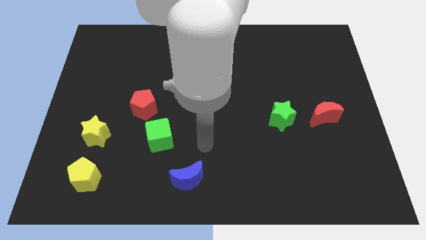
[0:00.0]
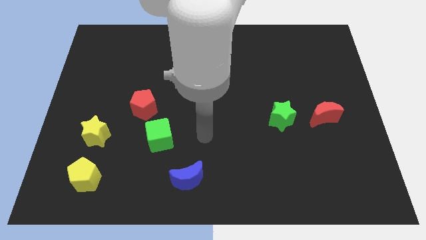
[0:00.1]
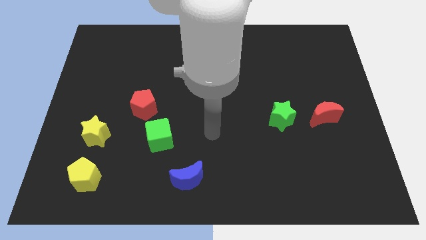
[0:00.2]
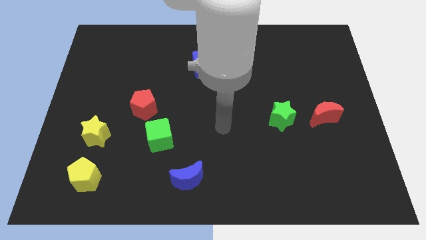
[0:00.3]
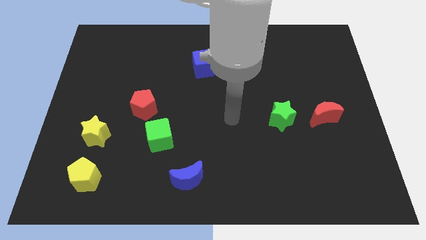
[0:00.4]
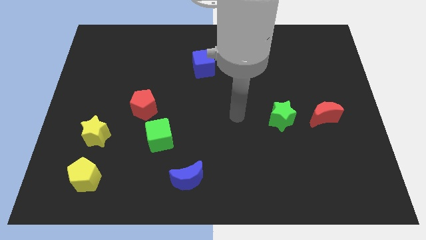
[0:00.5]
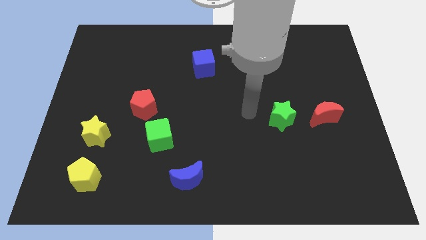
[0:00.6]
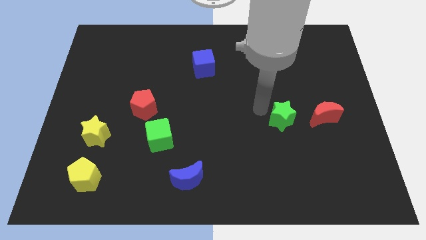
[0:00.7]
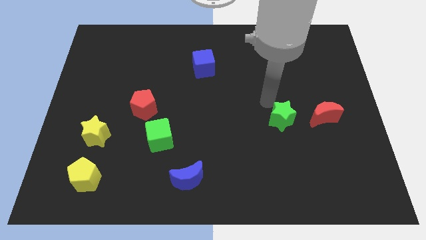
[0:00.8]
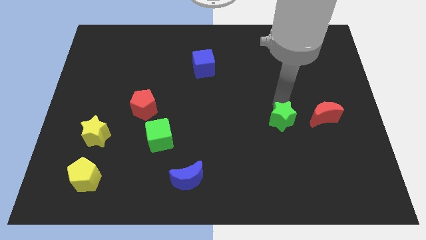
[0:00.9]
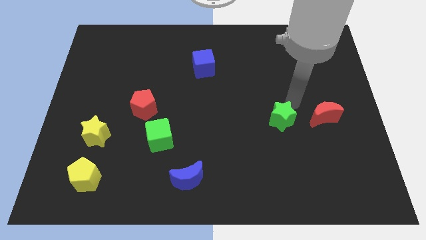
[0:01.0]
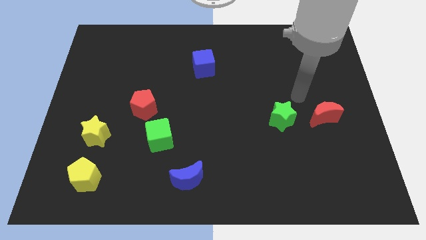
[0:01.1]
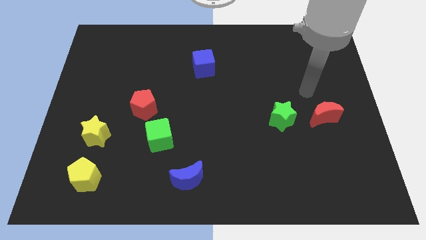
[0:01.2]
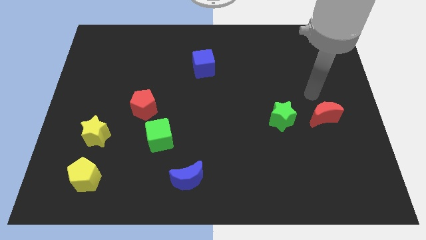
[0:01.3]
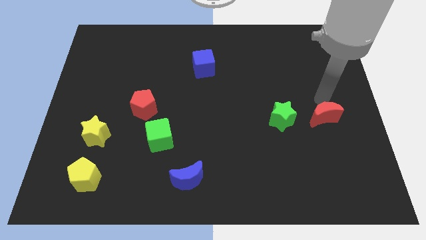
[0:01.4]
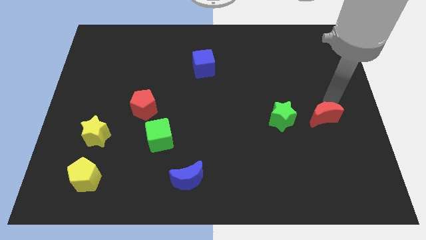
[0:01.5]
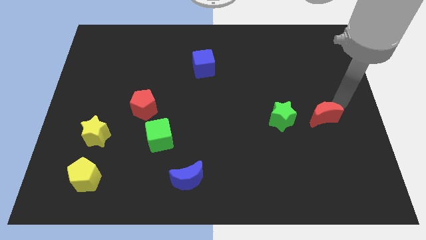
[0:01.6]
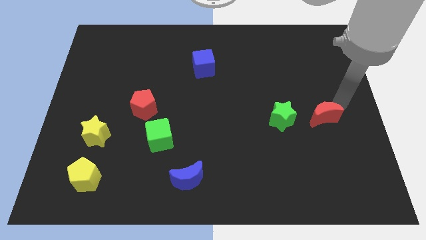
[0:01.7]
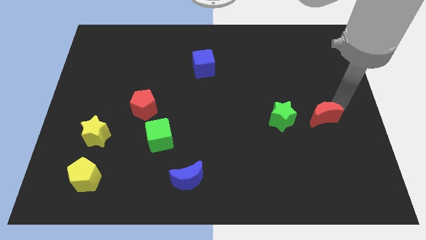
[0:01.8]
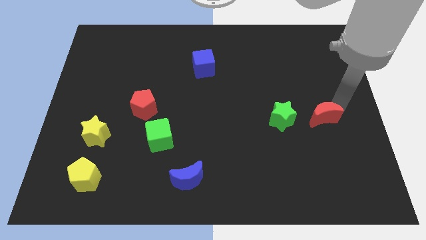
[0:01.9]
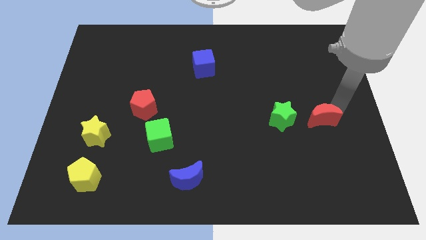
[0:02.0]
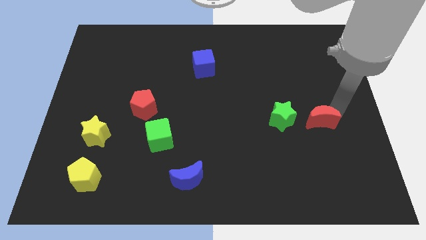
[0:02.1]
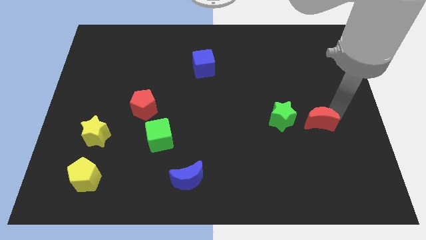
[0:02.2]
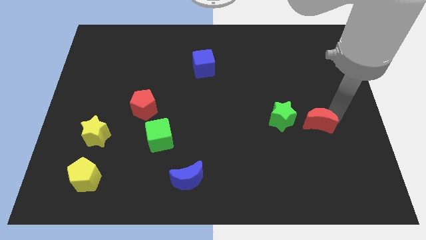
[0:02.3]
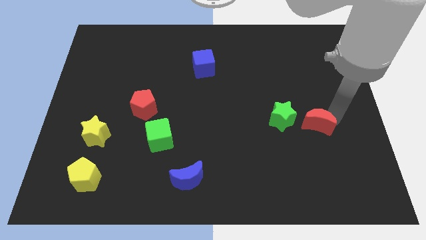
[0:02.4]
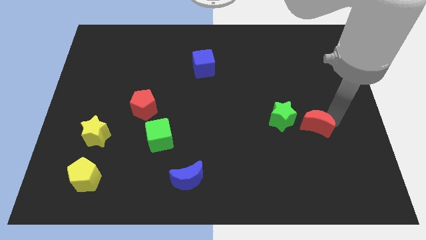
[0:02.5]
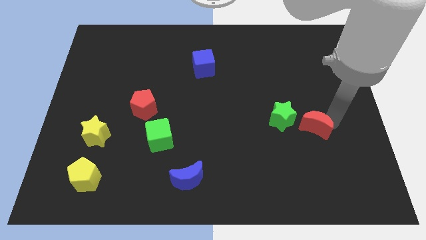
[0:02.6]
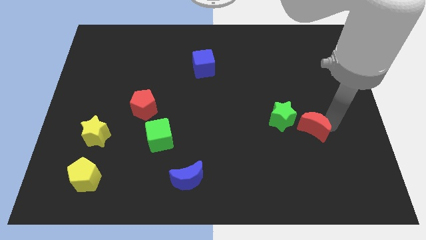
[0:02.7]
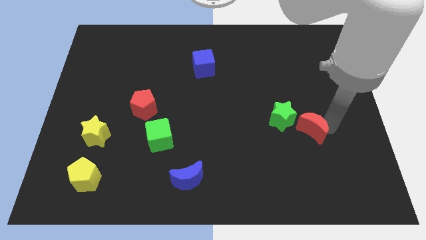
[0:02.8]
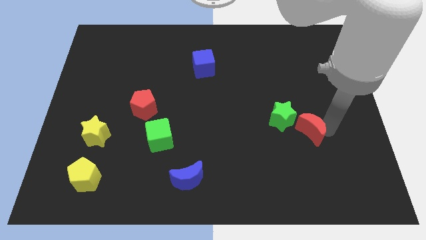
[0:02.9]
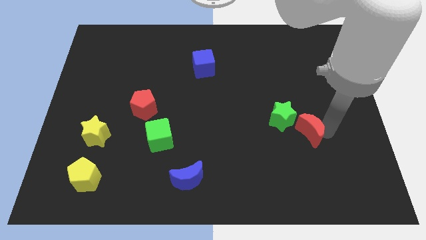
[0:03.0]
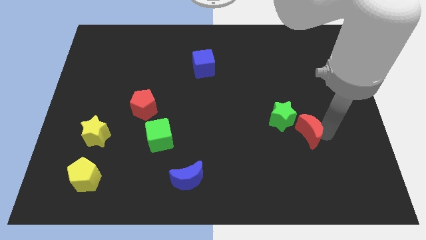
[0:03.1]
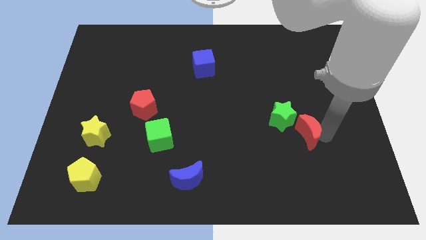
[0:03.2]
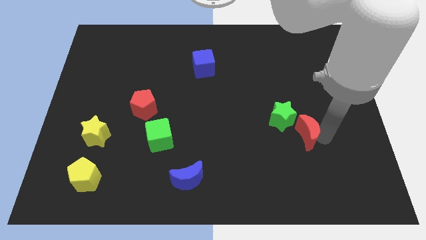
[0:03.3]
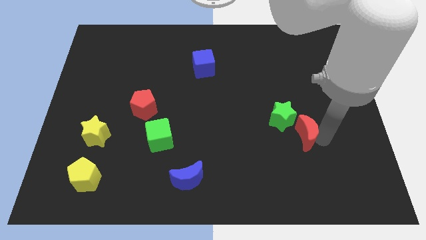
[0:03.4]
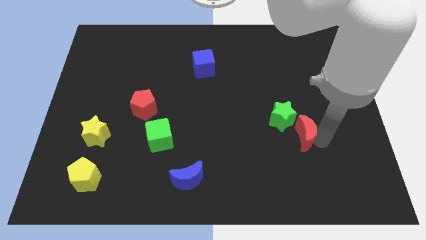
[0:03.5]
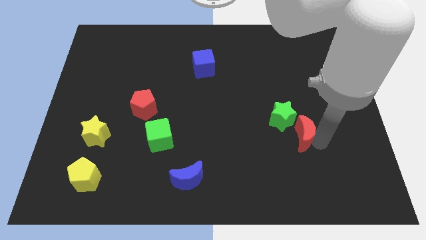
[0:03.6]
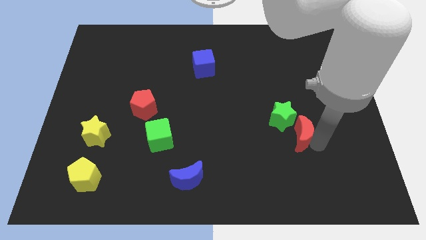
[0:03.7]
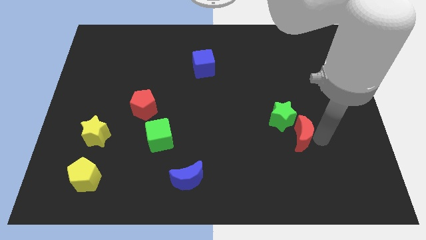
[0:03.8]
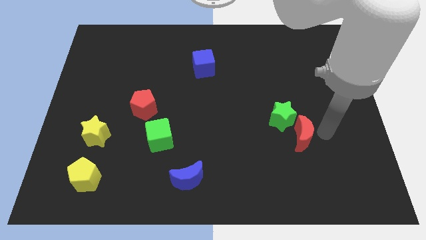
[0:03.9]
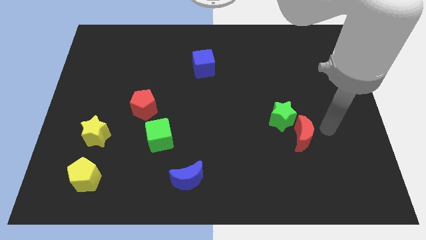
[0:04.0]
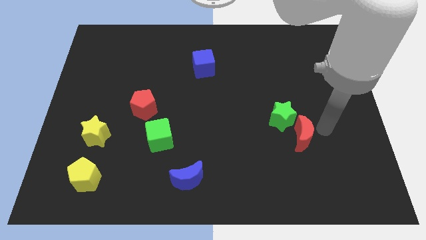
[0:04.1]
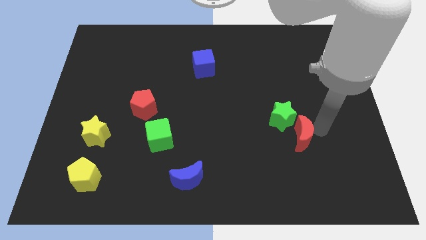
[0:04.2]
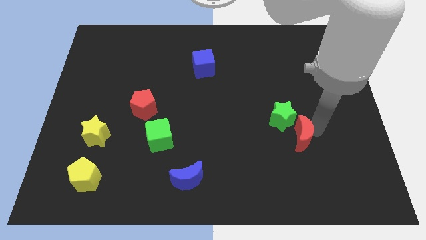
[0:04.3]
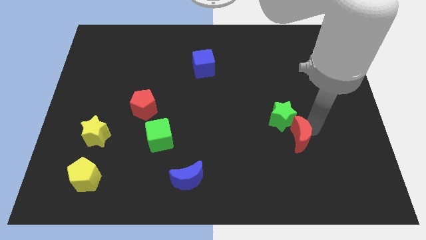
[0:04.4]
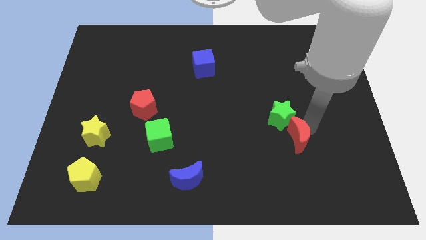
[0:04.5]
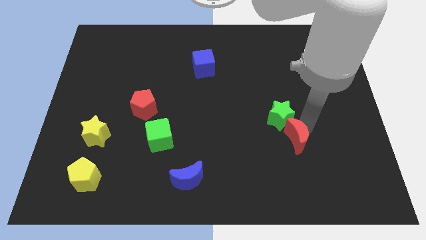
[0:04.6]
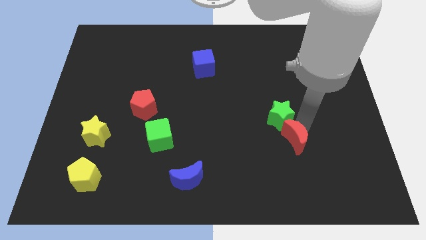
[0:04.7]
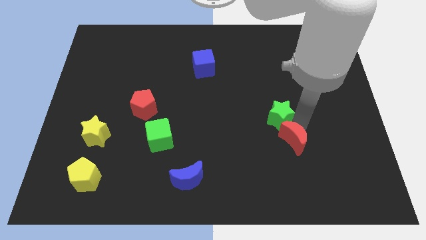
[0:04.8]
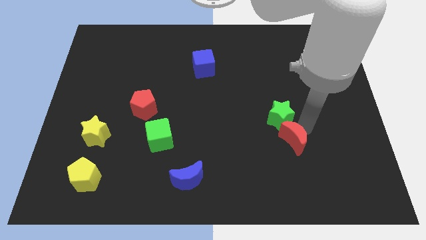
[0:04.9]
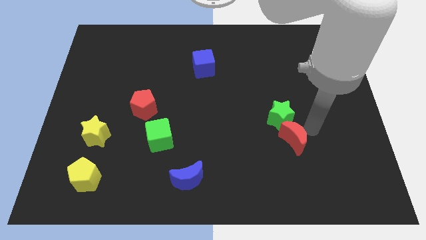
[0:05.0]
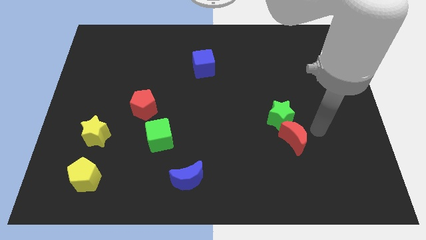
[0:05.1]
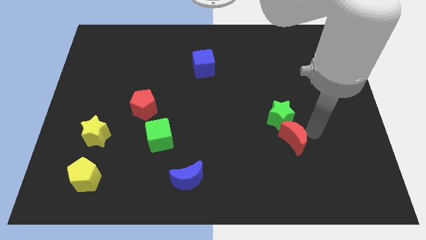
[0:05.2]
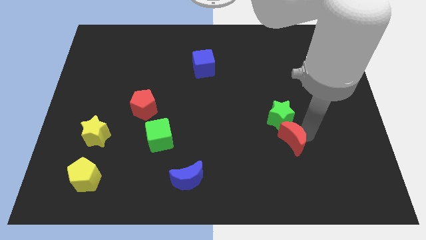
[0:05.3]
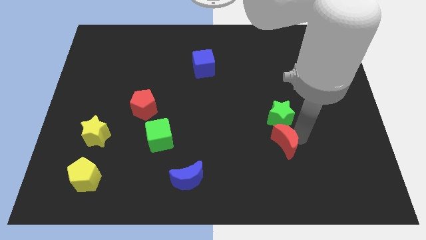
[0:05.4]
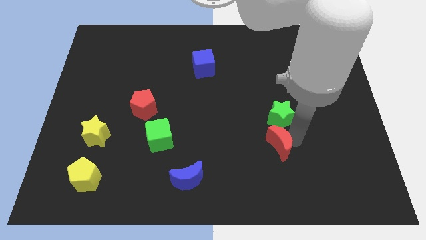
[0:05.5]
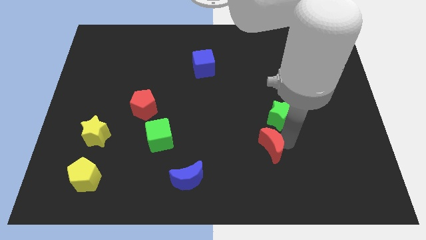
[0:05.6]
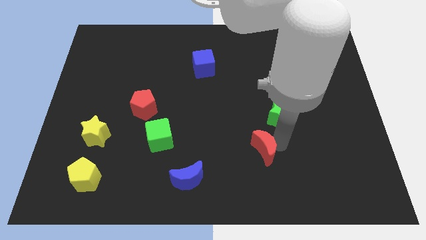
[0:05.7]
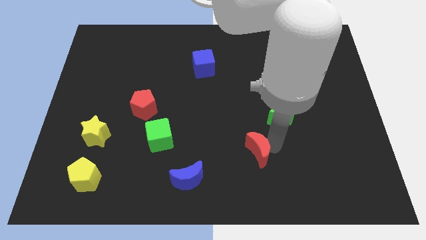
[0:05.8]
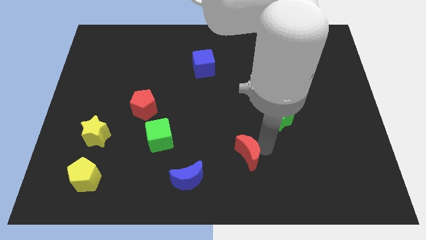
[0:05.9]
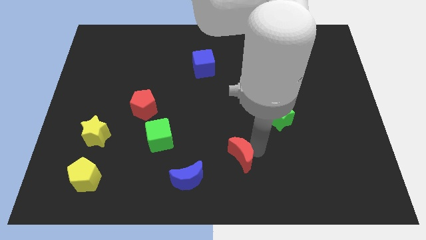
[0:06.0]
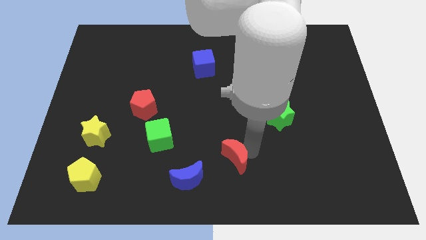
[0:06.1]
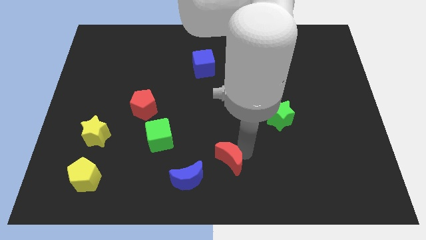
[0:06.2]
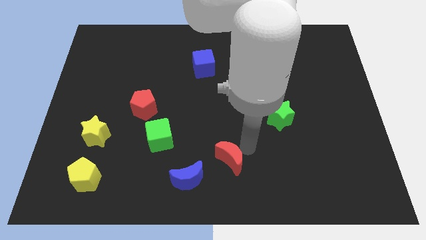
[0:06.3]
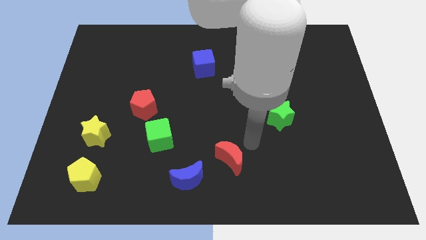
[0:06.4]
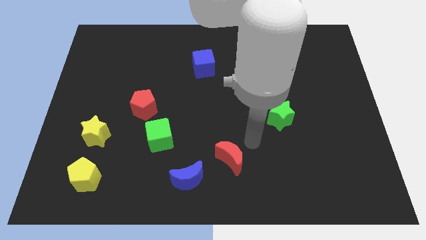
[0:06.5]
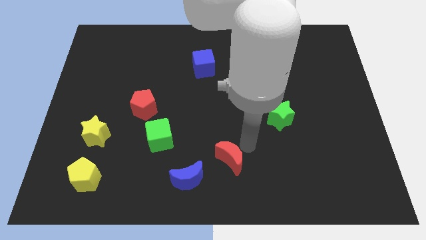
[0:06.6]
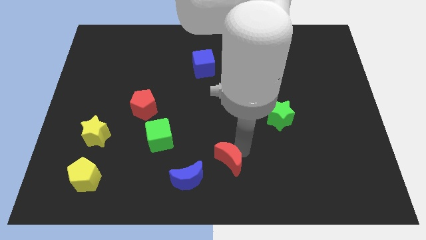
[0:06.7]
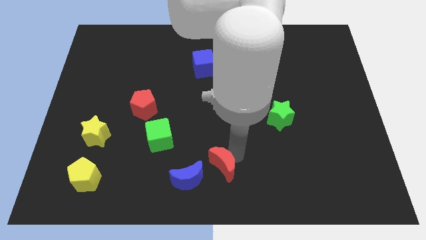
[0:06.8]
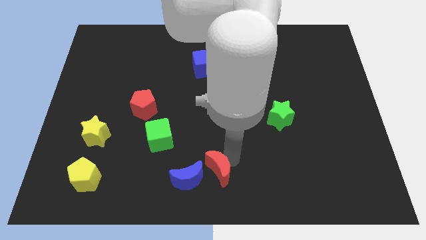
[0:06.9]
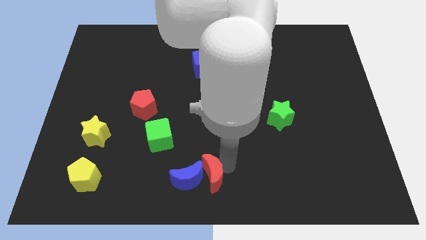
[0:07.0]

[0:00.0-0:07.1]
slide the red moon close to the blue moon
